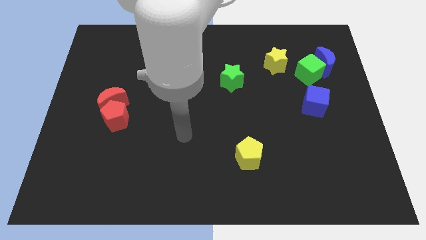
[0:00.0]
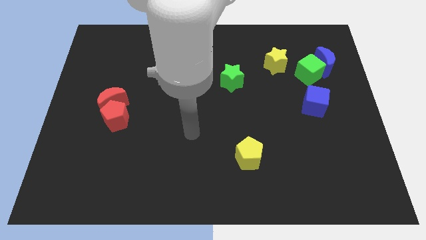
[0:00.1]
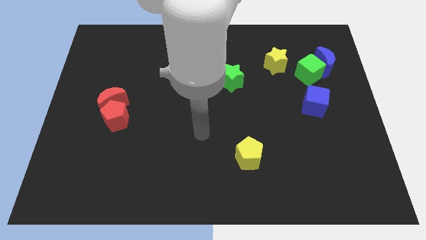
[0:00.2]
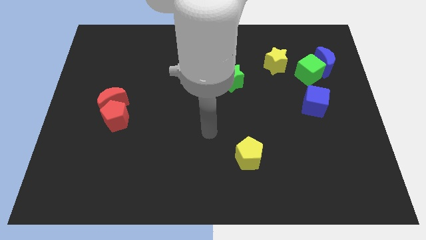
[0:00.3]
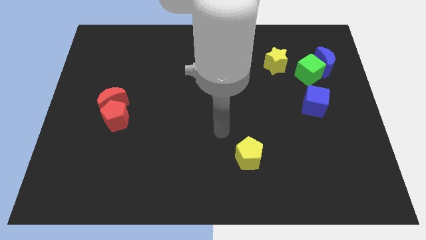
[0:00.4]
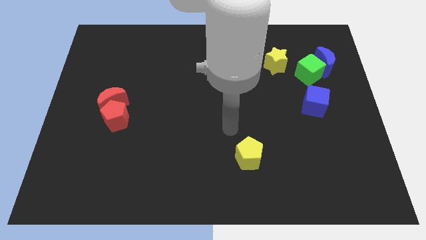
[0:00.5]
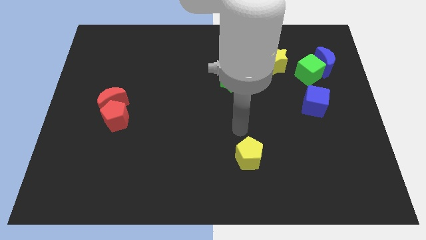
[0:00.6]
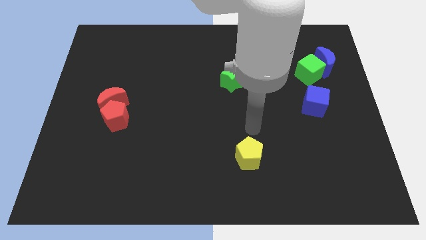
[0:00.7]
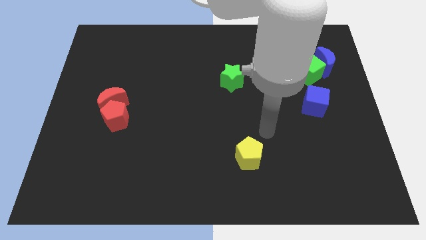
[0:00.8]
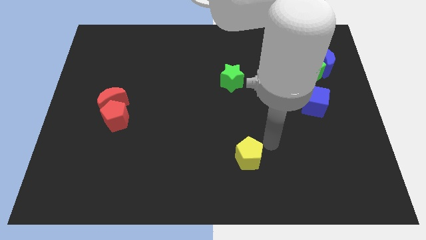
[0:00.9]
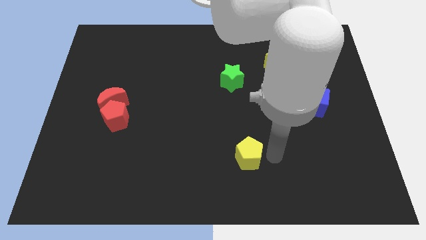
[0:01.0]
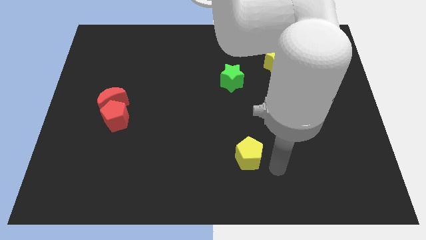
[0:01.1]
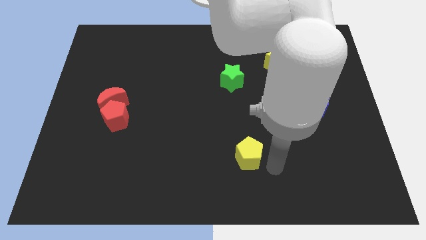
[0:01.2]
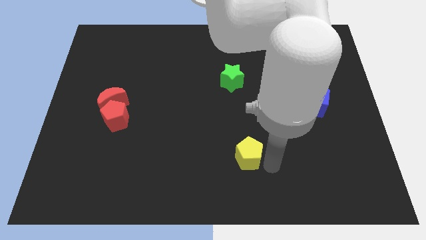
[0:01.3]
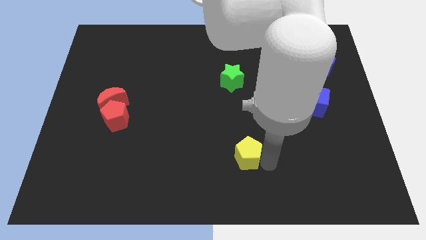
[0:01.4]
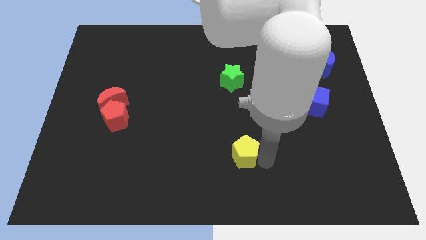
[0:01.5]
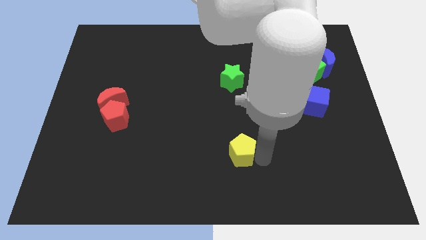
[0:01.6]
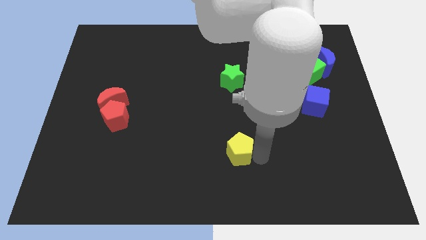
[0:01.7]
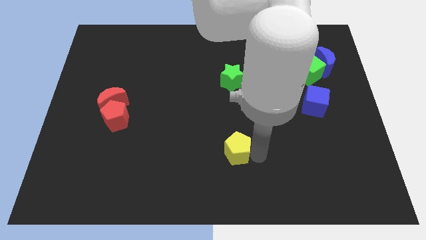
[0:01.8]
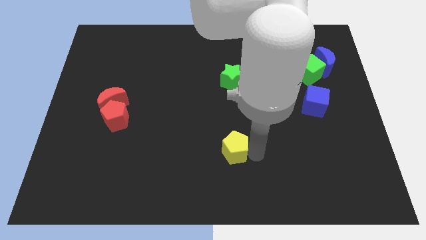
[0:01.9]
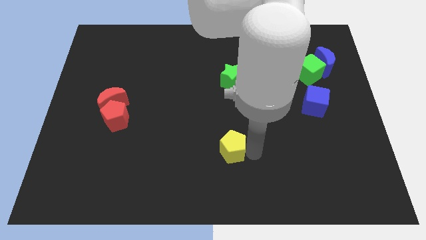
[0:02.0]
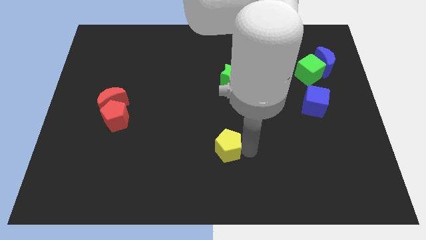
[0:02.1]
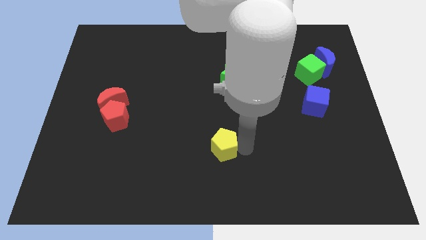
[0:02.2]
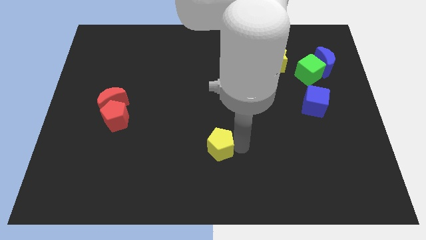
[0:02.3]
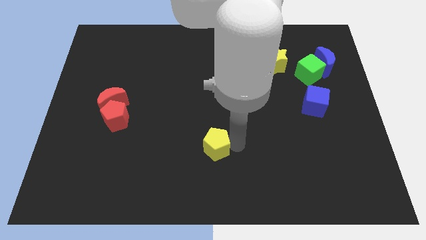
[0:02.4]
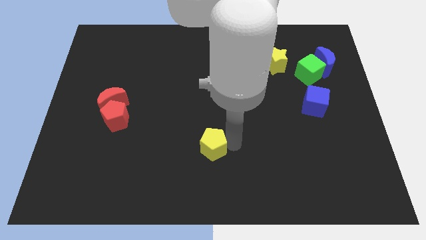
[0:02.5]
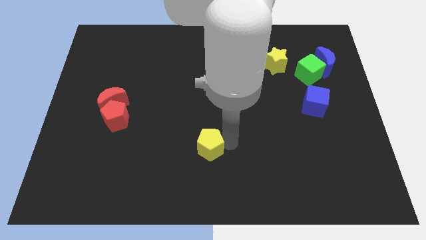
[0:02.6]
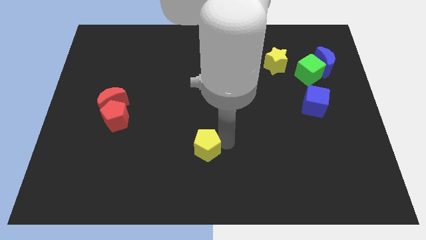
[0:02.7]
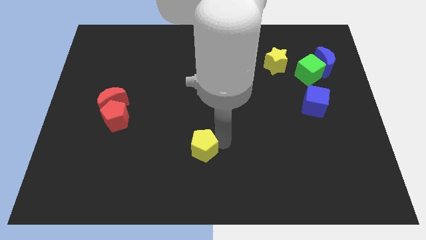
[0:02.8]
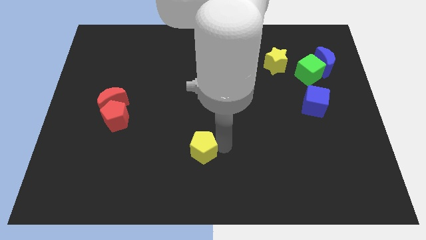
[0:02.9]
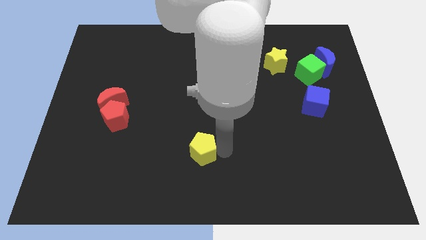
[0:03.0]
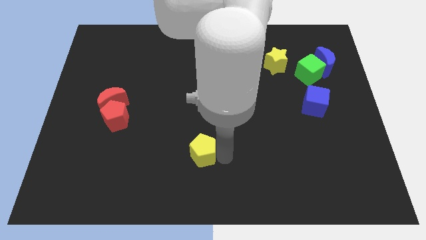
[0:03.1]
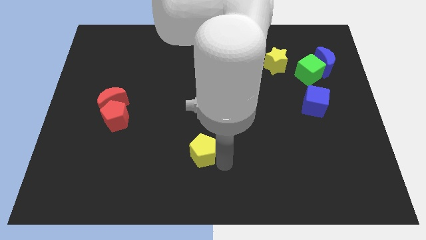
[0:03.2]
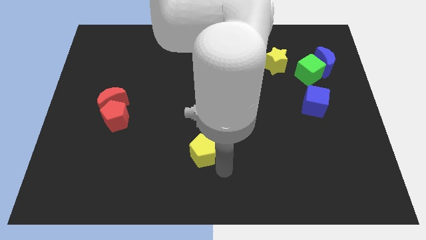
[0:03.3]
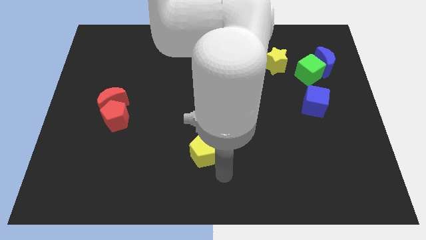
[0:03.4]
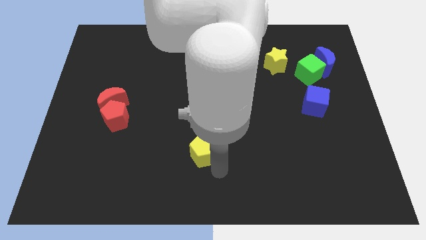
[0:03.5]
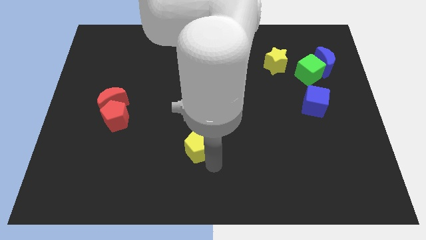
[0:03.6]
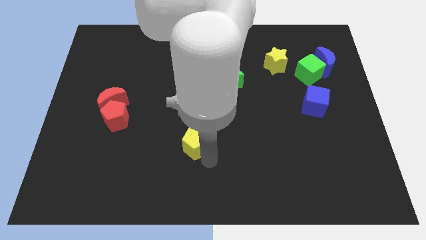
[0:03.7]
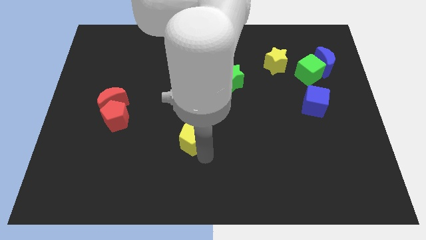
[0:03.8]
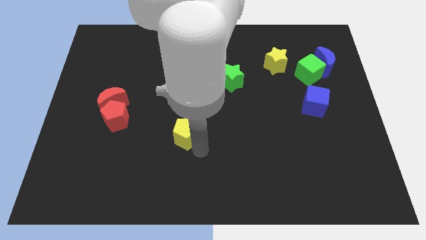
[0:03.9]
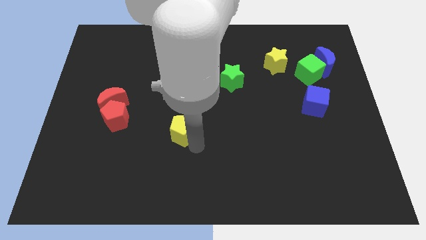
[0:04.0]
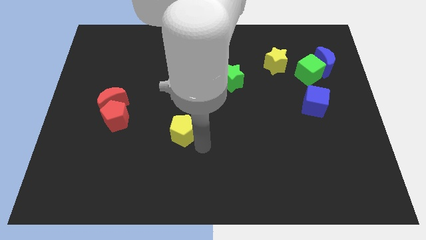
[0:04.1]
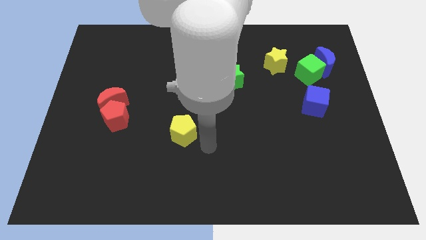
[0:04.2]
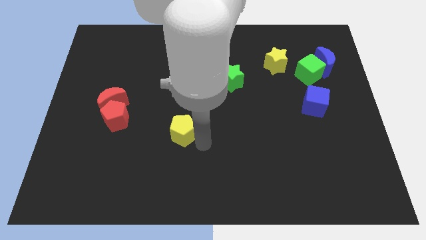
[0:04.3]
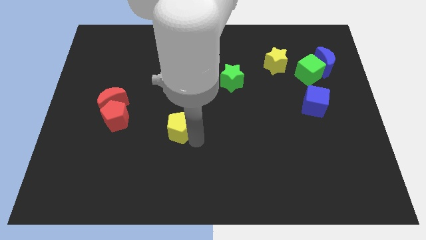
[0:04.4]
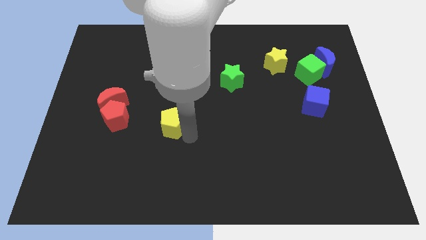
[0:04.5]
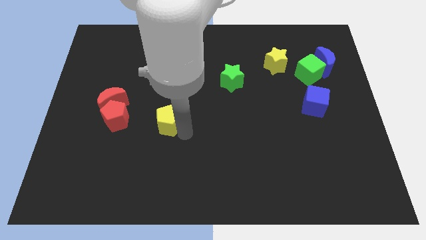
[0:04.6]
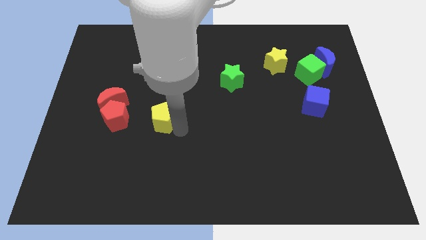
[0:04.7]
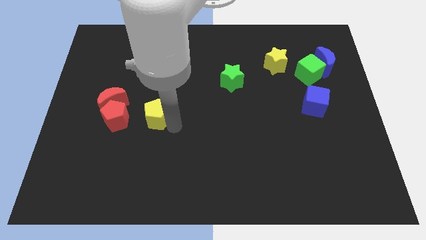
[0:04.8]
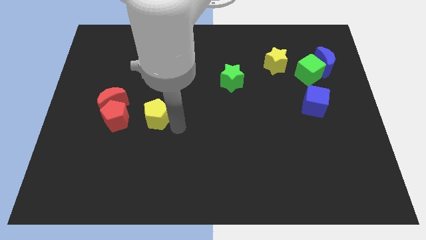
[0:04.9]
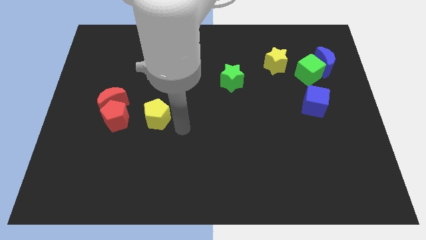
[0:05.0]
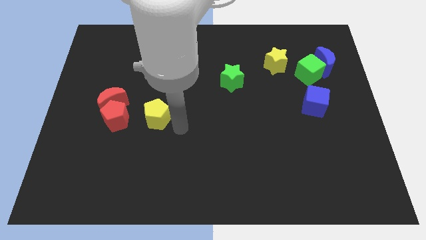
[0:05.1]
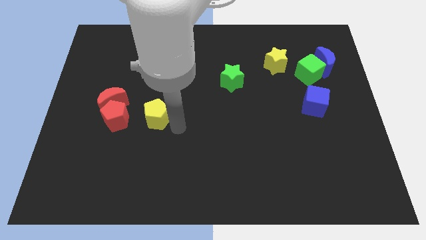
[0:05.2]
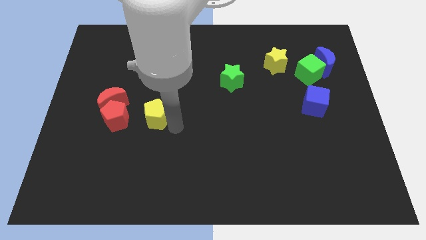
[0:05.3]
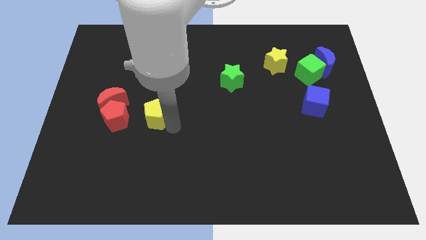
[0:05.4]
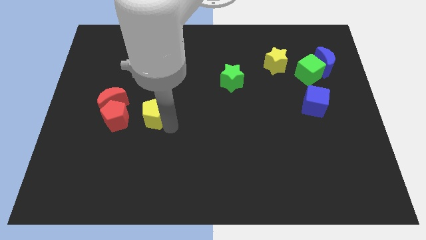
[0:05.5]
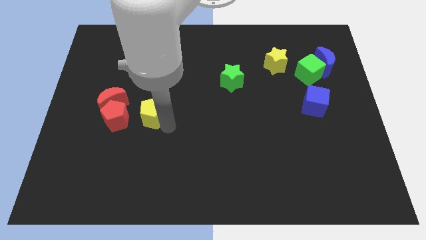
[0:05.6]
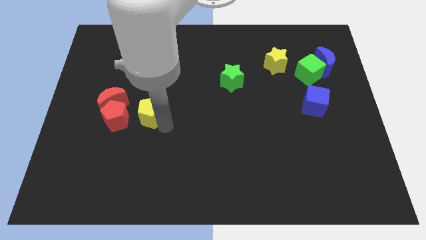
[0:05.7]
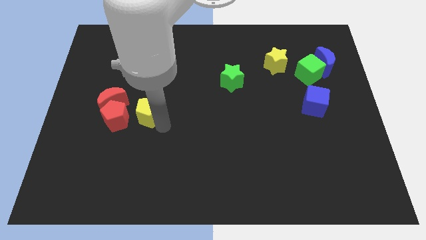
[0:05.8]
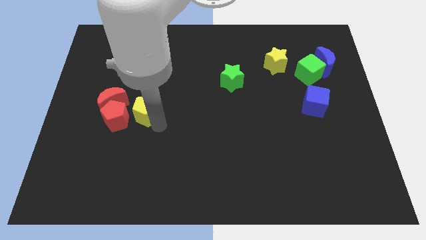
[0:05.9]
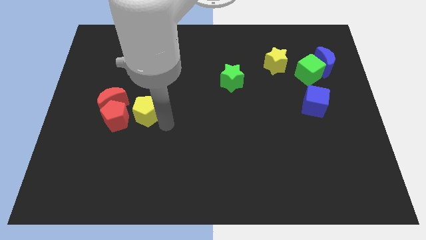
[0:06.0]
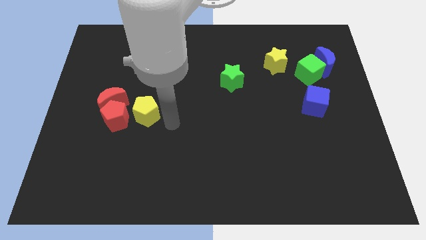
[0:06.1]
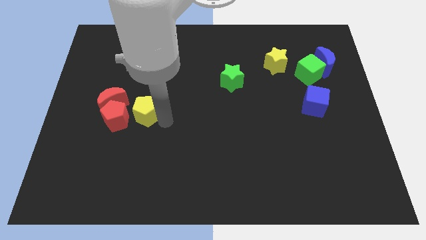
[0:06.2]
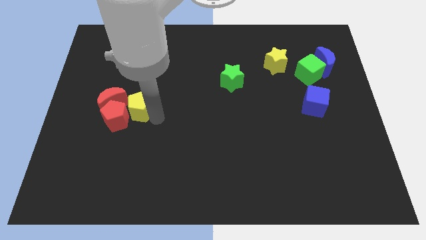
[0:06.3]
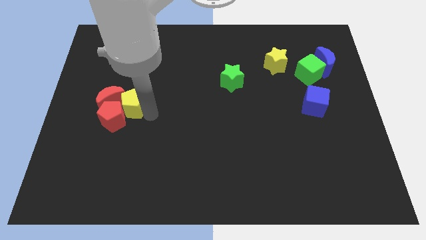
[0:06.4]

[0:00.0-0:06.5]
move the yellow pentagon next to the red moon
